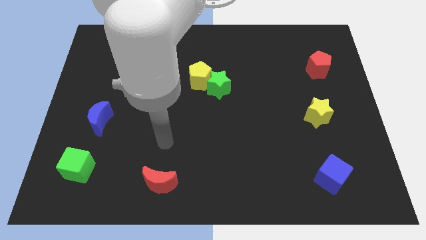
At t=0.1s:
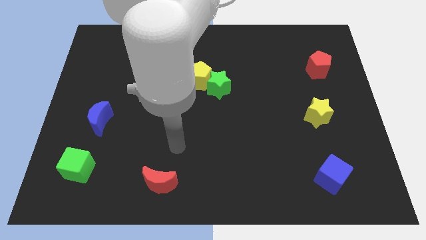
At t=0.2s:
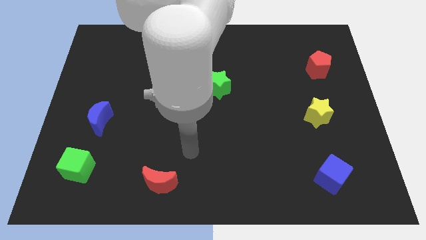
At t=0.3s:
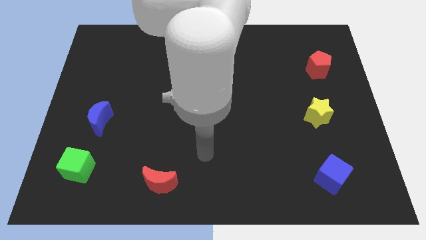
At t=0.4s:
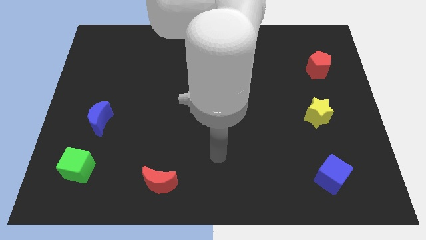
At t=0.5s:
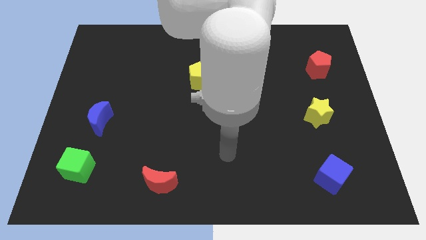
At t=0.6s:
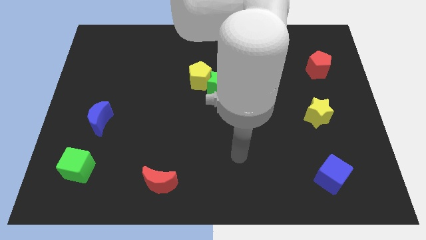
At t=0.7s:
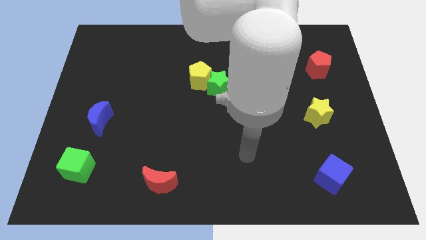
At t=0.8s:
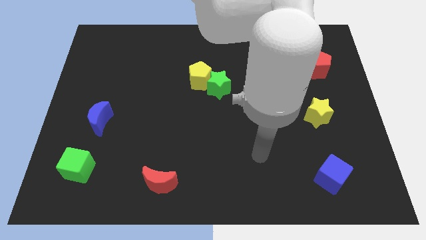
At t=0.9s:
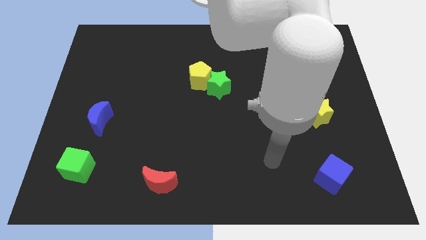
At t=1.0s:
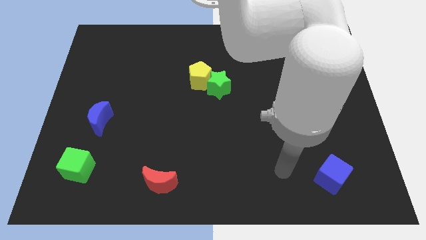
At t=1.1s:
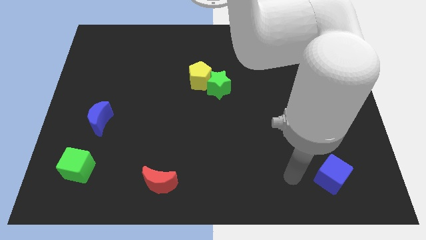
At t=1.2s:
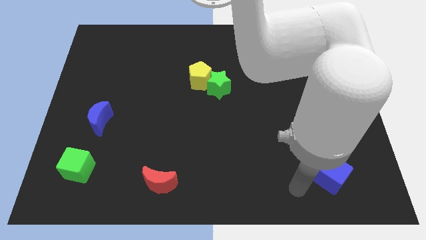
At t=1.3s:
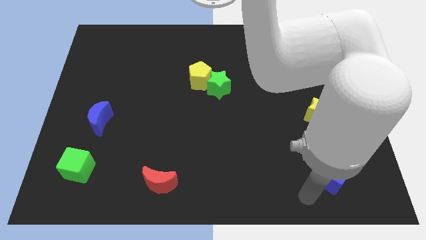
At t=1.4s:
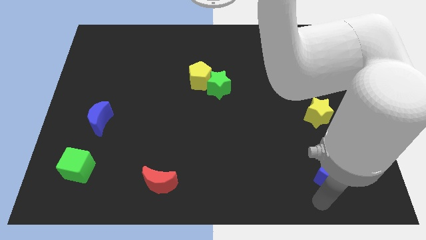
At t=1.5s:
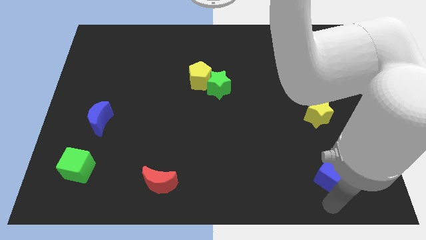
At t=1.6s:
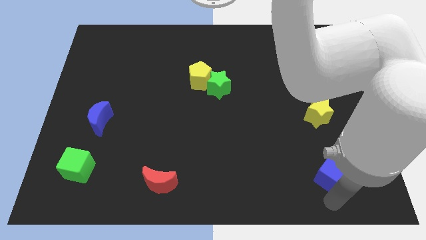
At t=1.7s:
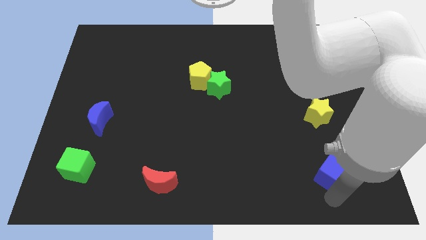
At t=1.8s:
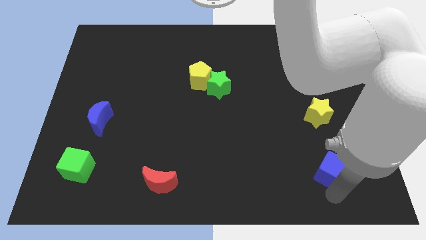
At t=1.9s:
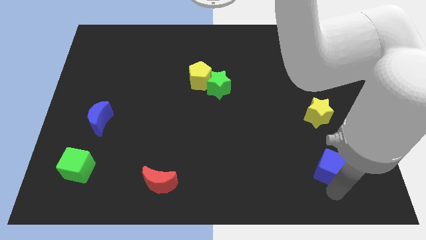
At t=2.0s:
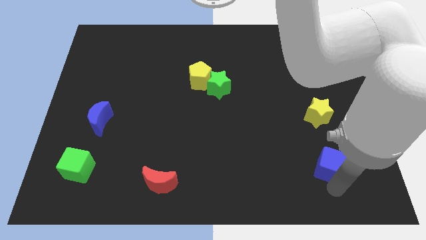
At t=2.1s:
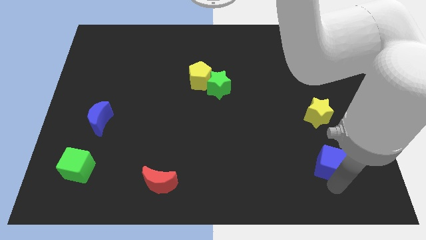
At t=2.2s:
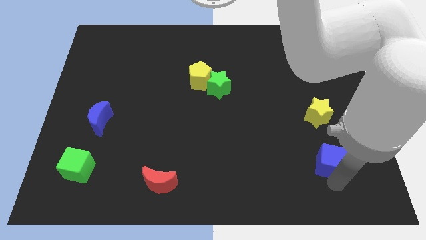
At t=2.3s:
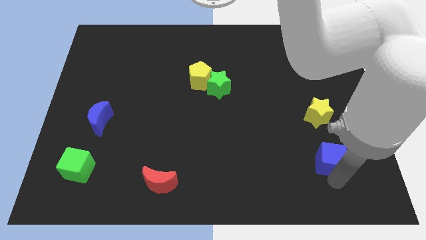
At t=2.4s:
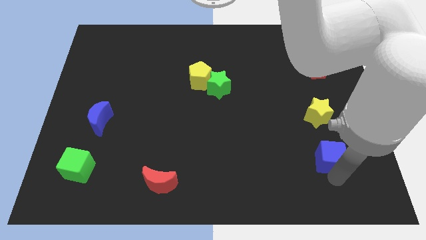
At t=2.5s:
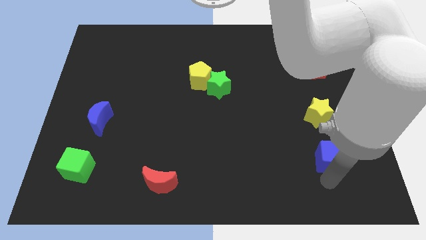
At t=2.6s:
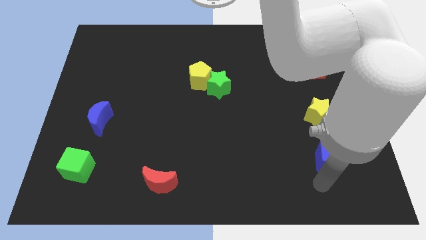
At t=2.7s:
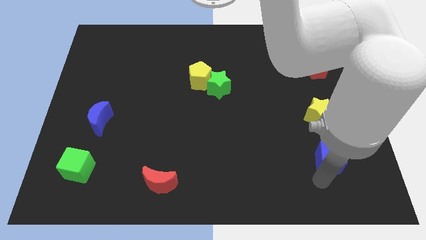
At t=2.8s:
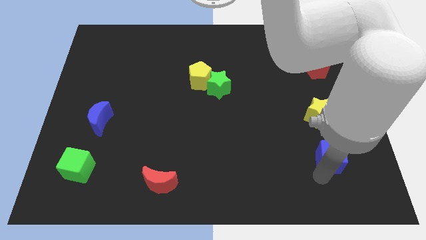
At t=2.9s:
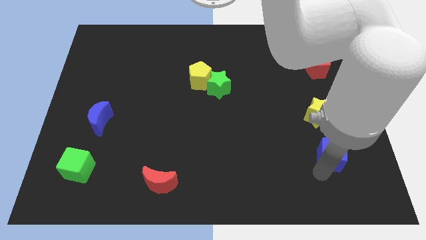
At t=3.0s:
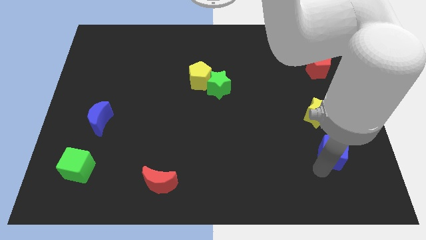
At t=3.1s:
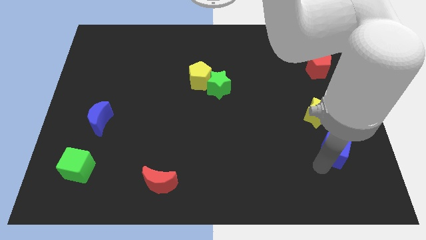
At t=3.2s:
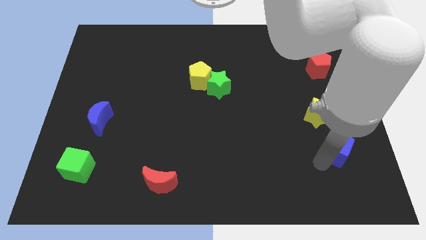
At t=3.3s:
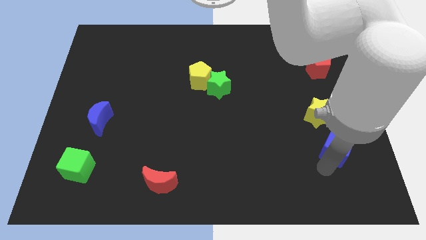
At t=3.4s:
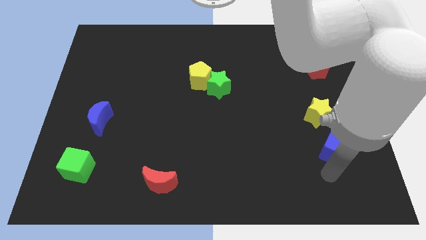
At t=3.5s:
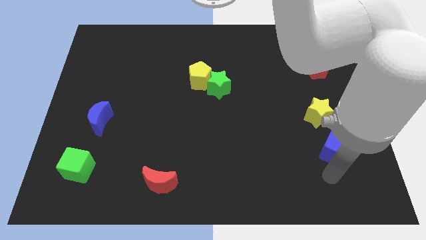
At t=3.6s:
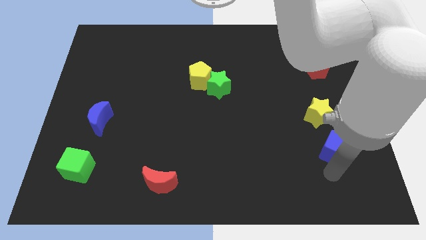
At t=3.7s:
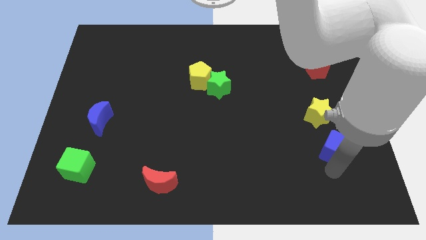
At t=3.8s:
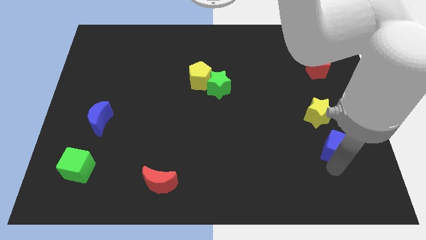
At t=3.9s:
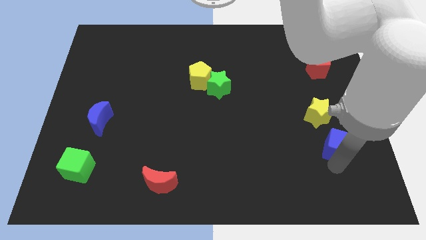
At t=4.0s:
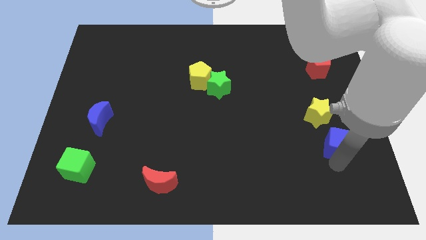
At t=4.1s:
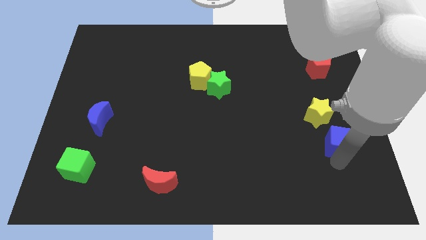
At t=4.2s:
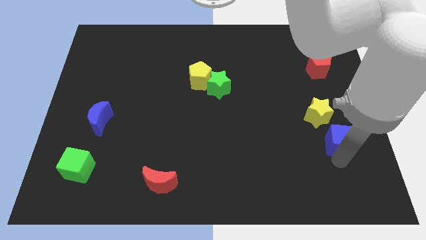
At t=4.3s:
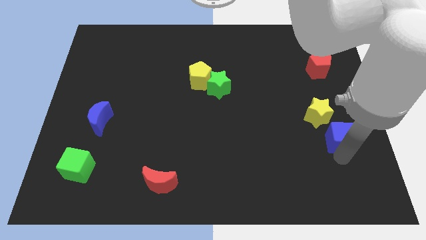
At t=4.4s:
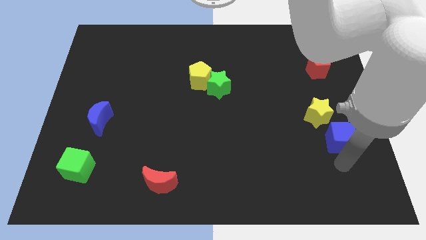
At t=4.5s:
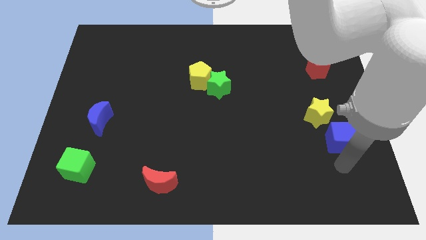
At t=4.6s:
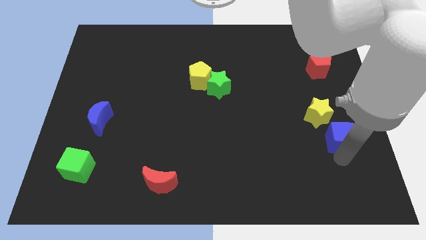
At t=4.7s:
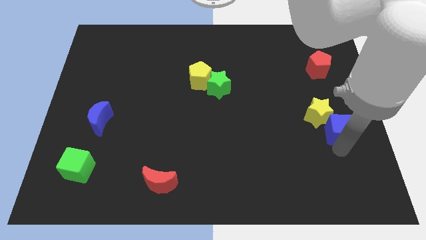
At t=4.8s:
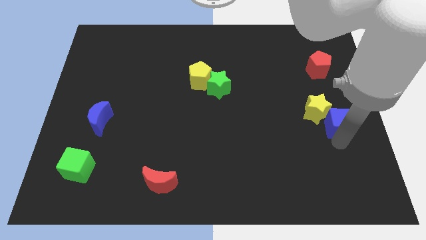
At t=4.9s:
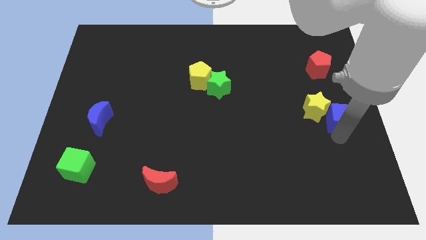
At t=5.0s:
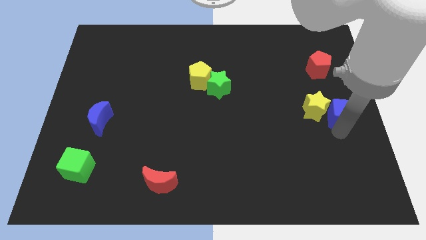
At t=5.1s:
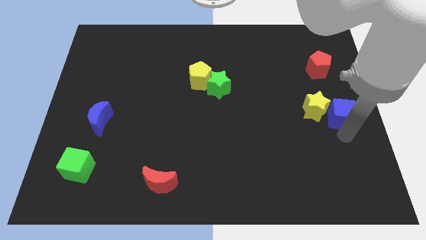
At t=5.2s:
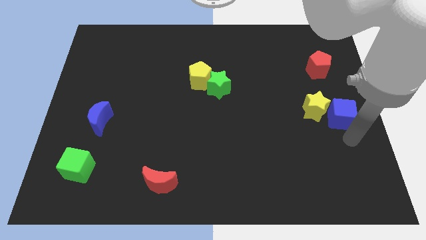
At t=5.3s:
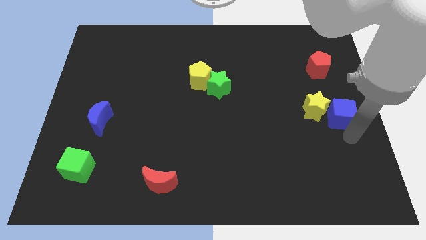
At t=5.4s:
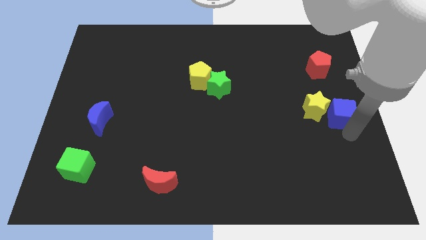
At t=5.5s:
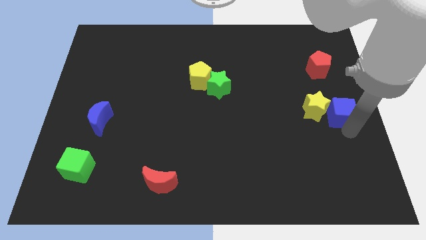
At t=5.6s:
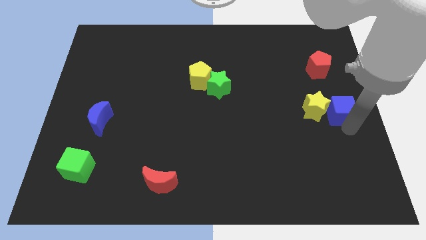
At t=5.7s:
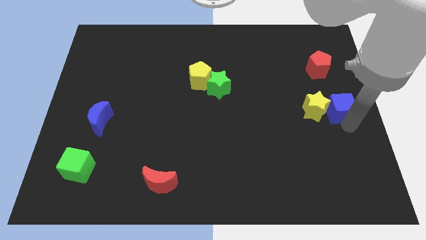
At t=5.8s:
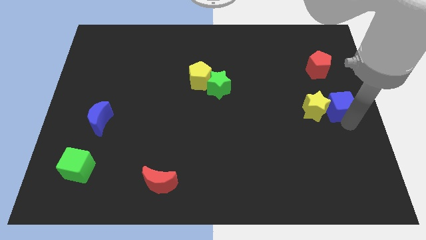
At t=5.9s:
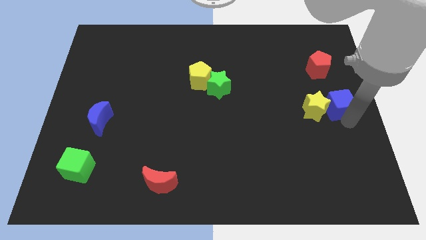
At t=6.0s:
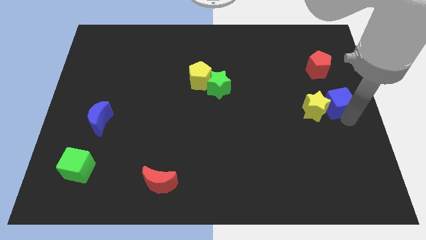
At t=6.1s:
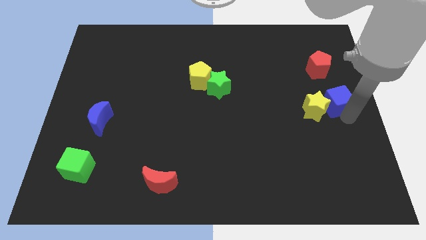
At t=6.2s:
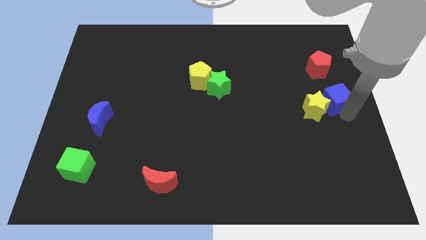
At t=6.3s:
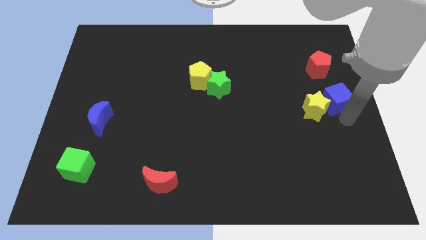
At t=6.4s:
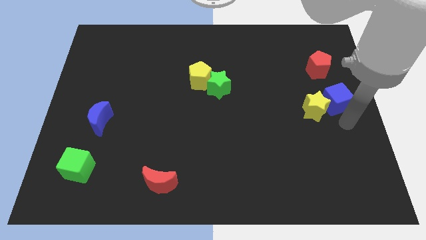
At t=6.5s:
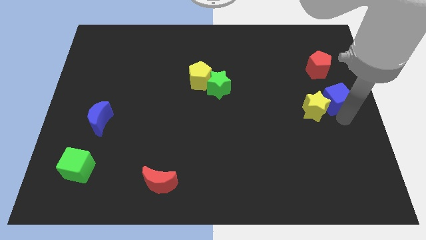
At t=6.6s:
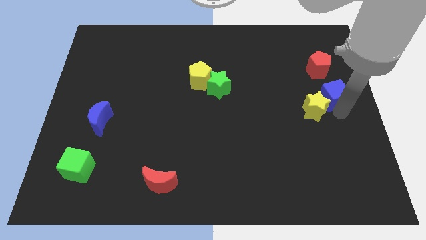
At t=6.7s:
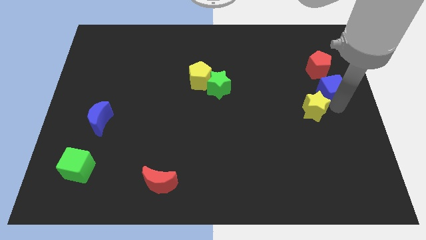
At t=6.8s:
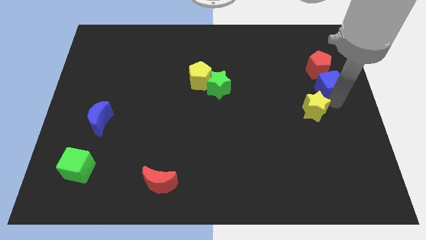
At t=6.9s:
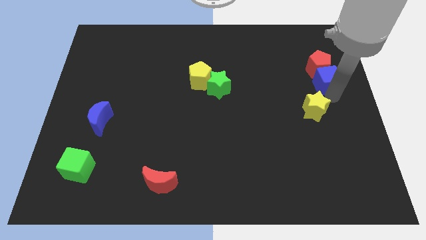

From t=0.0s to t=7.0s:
push the blue cube to the red pentagon
